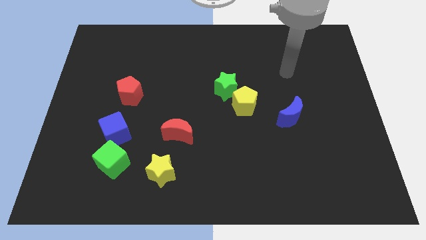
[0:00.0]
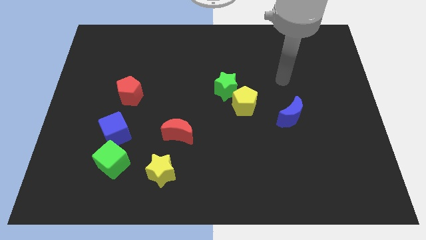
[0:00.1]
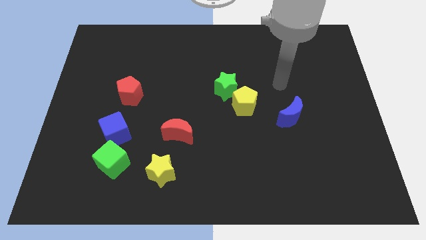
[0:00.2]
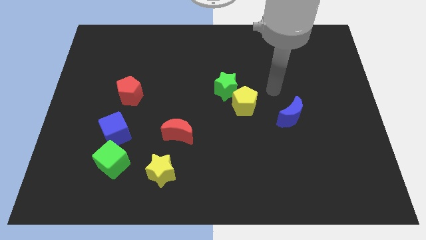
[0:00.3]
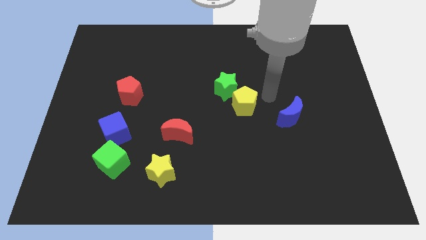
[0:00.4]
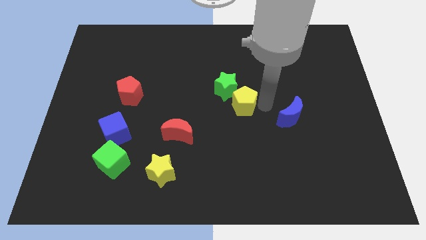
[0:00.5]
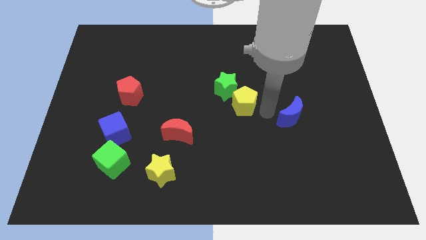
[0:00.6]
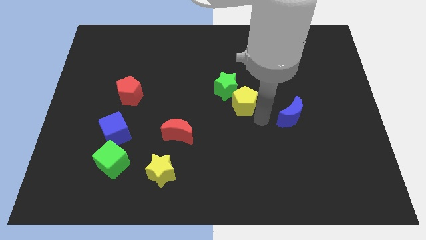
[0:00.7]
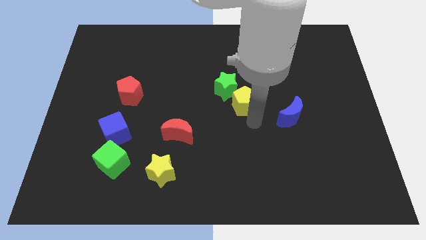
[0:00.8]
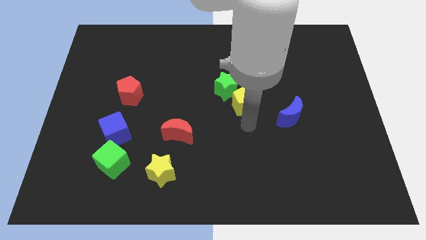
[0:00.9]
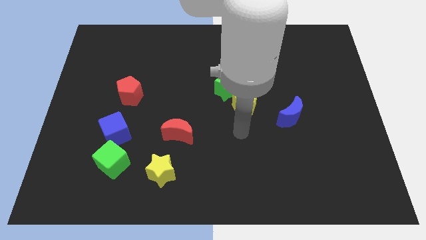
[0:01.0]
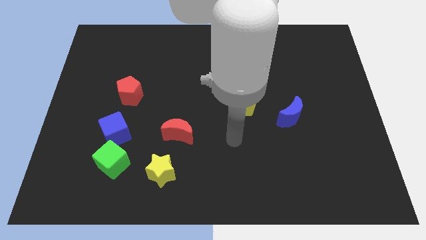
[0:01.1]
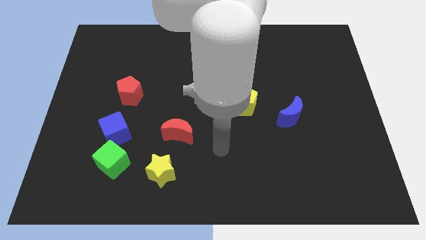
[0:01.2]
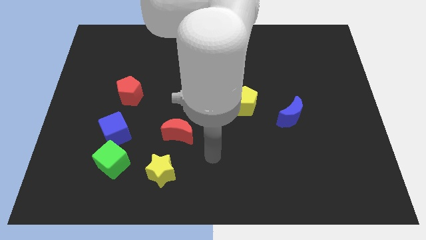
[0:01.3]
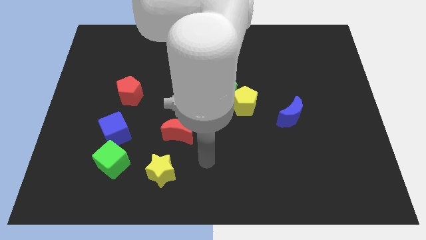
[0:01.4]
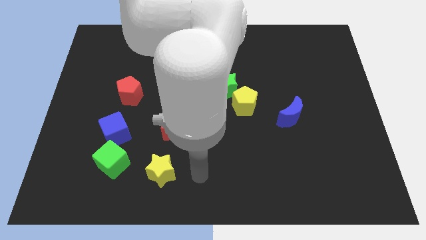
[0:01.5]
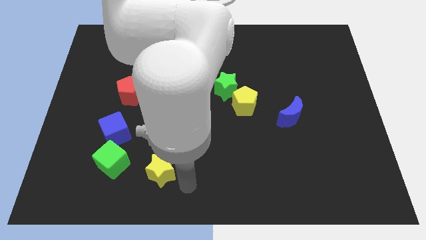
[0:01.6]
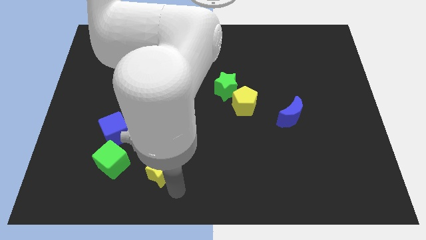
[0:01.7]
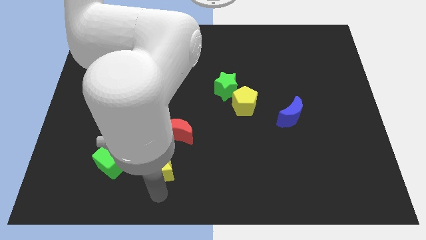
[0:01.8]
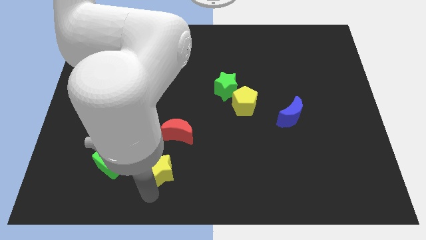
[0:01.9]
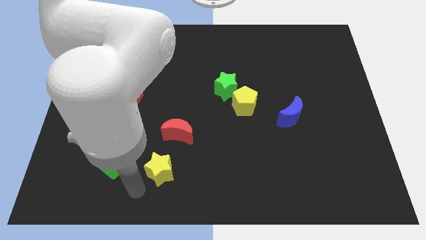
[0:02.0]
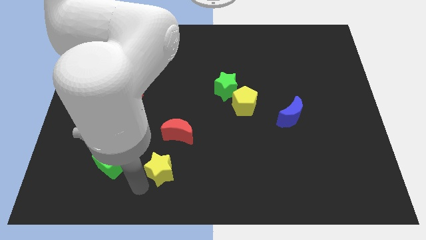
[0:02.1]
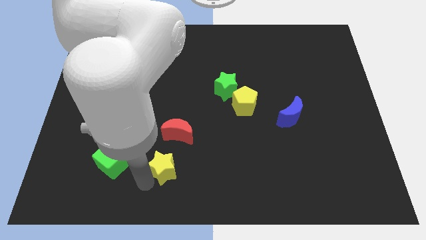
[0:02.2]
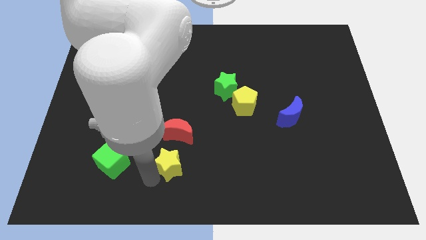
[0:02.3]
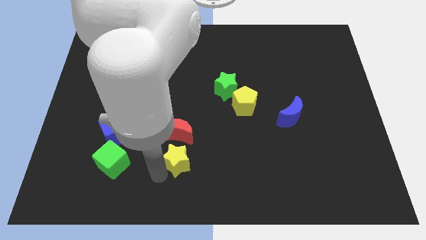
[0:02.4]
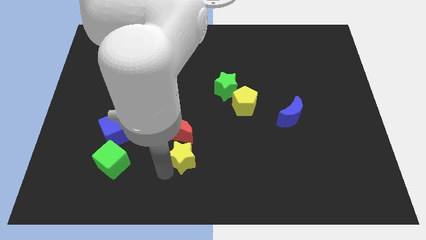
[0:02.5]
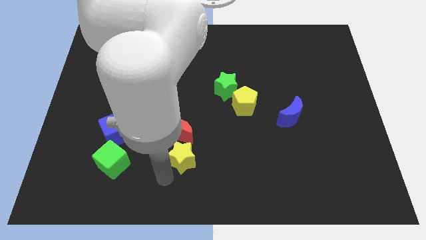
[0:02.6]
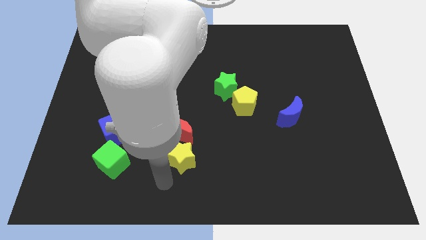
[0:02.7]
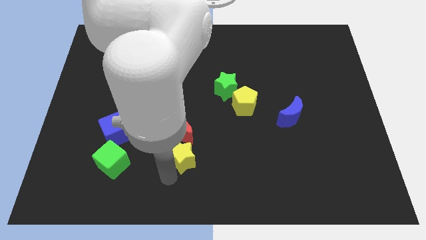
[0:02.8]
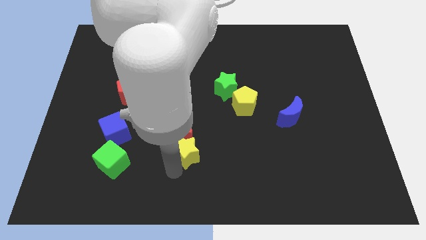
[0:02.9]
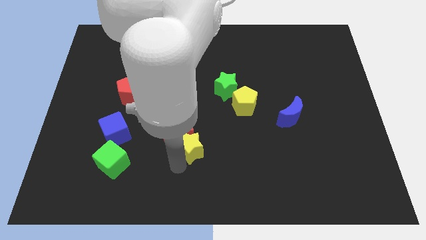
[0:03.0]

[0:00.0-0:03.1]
slightly push the yellow star up and right

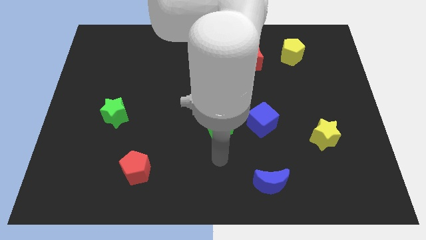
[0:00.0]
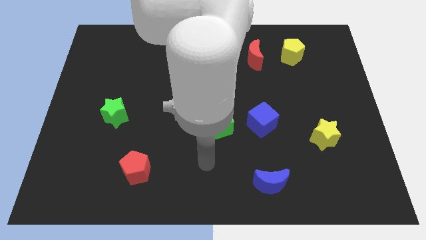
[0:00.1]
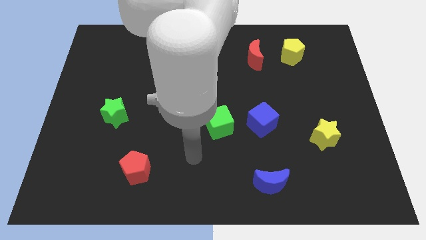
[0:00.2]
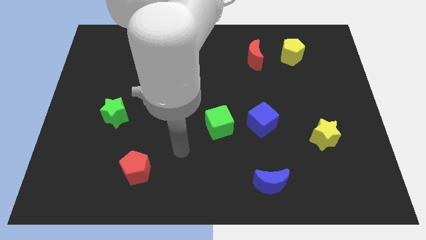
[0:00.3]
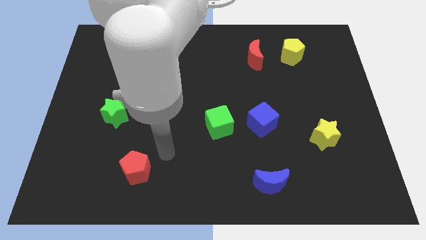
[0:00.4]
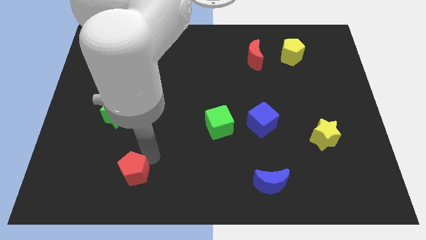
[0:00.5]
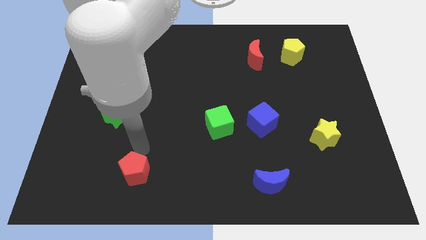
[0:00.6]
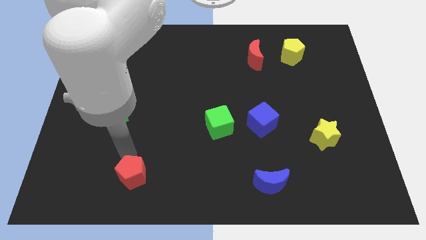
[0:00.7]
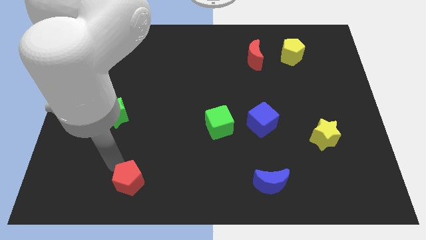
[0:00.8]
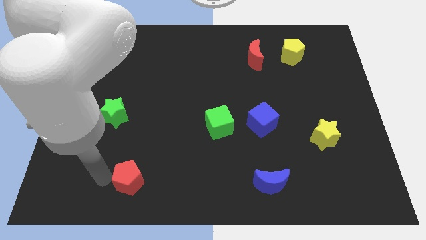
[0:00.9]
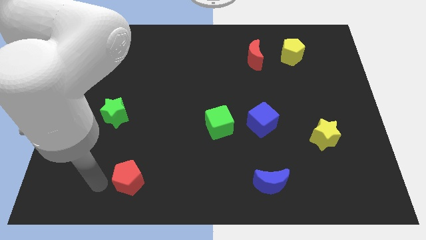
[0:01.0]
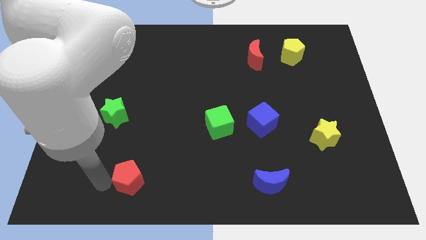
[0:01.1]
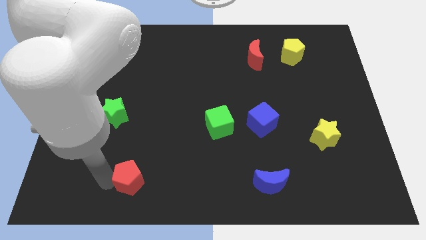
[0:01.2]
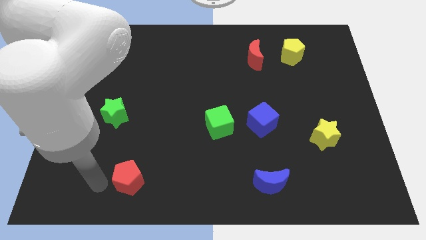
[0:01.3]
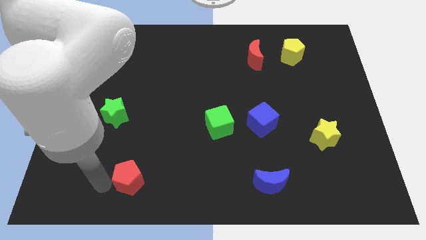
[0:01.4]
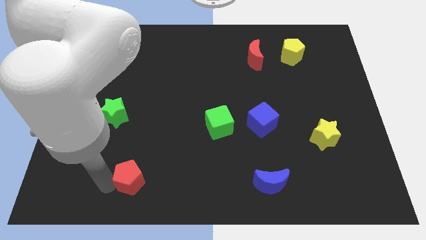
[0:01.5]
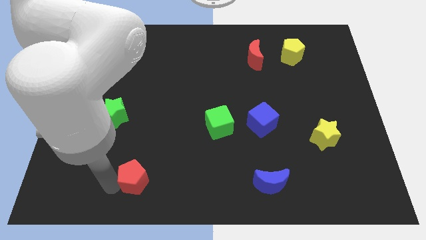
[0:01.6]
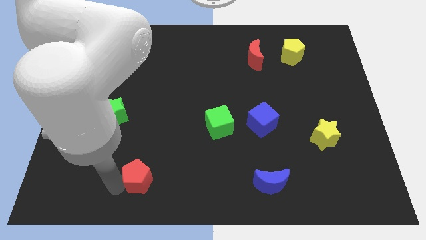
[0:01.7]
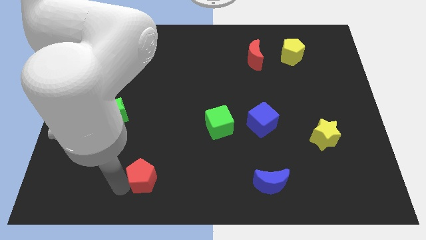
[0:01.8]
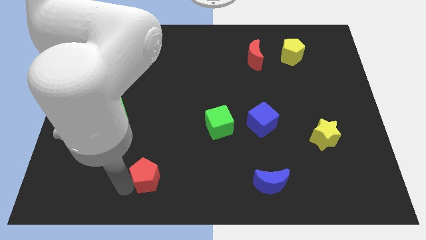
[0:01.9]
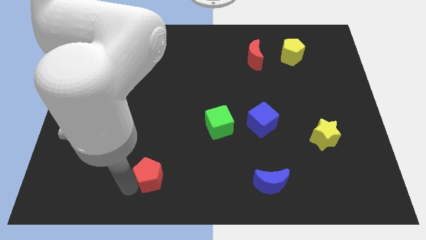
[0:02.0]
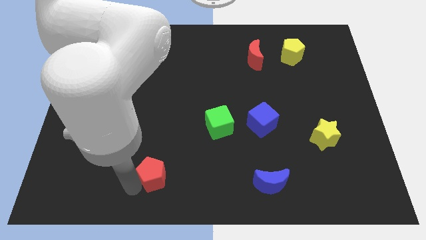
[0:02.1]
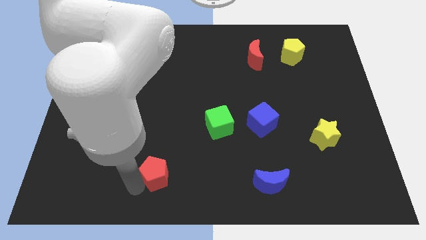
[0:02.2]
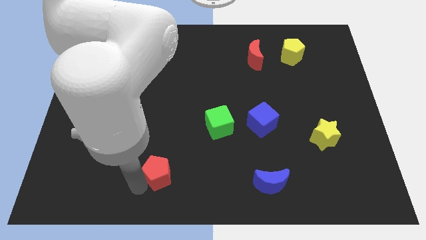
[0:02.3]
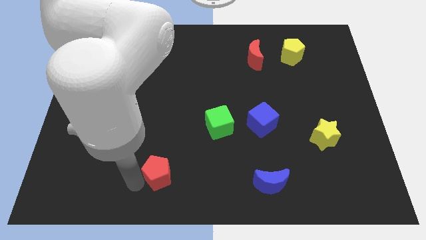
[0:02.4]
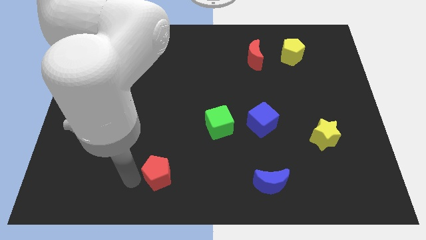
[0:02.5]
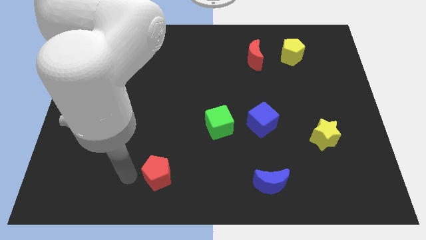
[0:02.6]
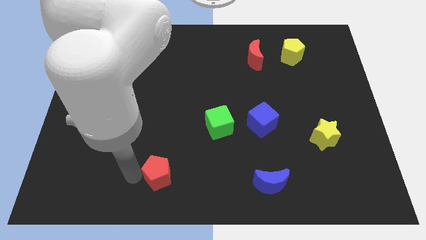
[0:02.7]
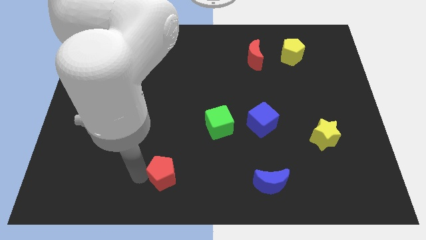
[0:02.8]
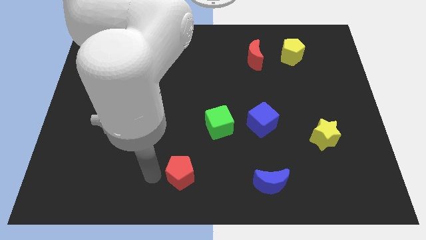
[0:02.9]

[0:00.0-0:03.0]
slightly slide the red pentagon right

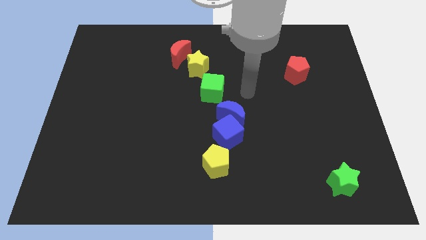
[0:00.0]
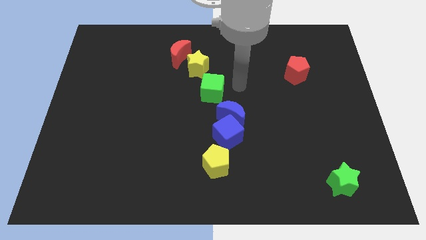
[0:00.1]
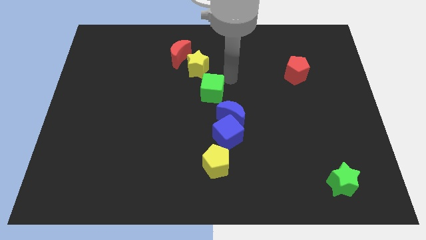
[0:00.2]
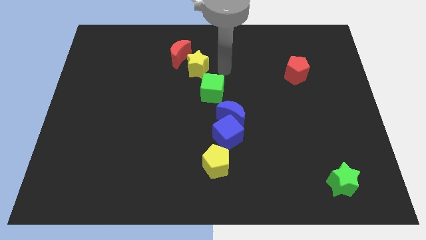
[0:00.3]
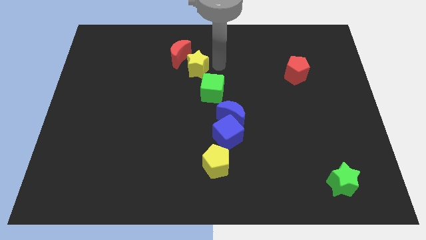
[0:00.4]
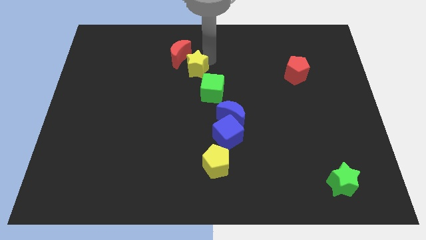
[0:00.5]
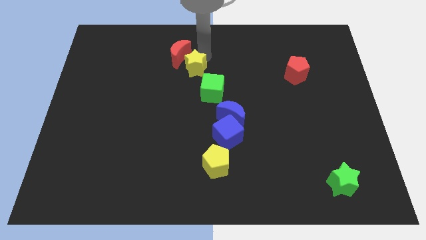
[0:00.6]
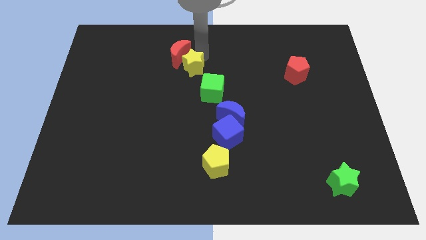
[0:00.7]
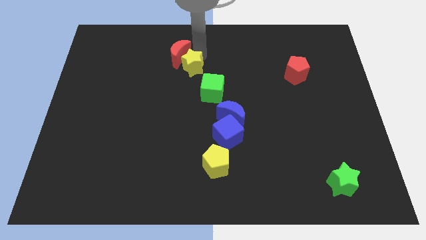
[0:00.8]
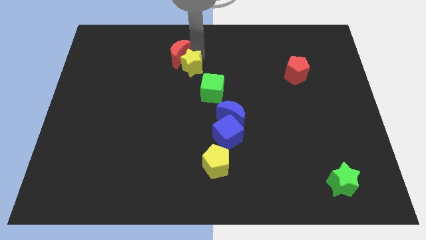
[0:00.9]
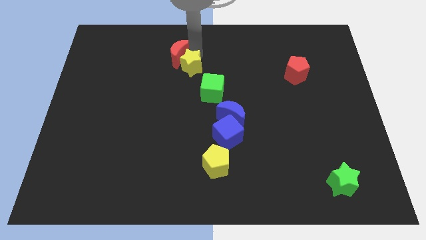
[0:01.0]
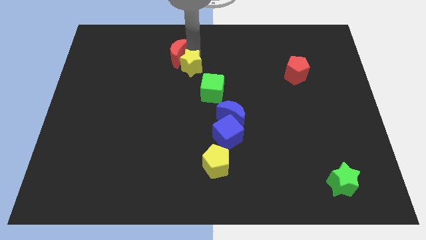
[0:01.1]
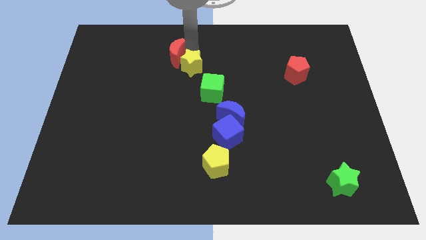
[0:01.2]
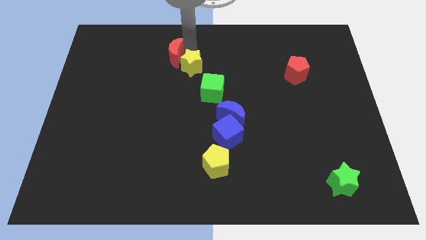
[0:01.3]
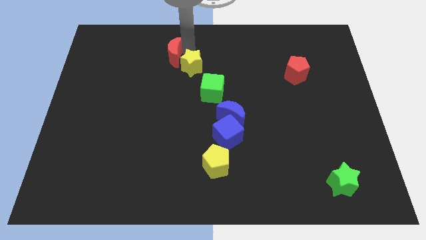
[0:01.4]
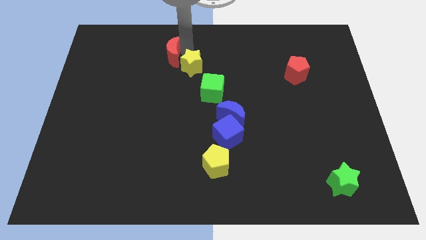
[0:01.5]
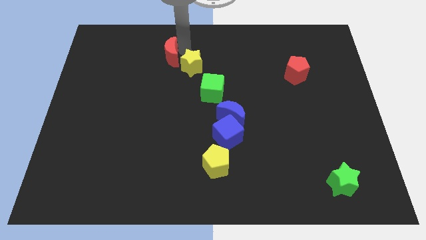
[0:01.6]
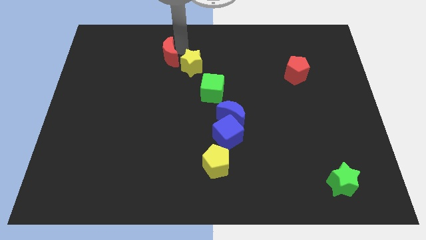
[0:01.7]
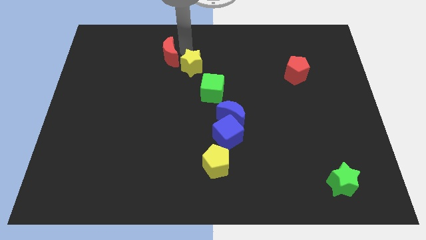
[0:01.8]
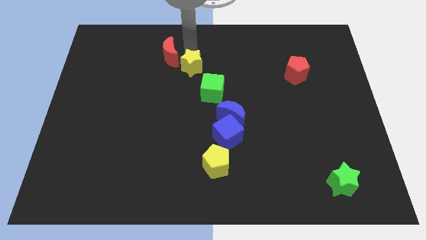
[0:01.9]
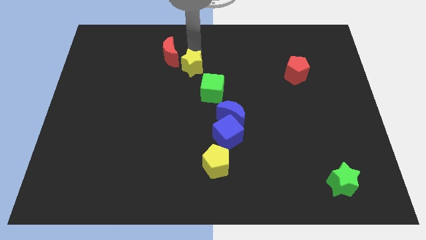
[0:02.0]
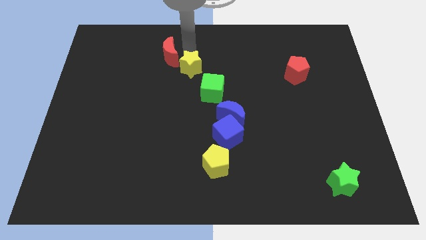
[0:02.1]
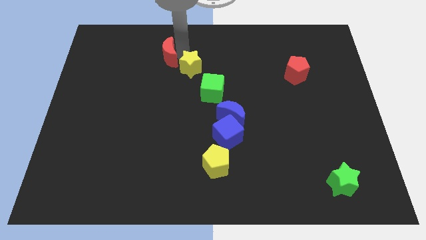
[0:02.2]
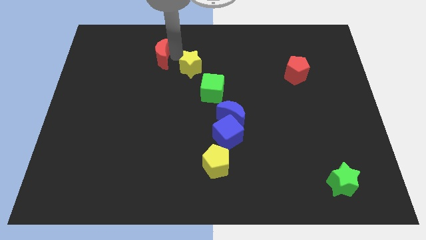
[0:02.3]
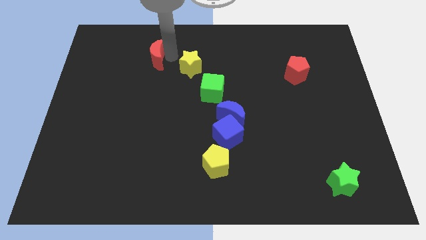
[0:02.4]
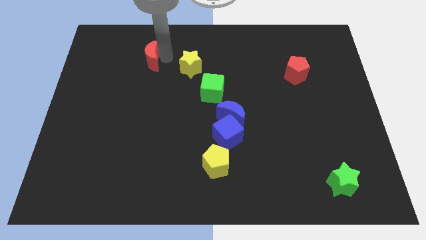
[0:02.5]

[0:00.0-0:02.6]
slightly push the red moon to the left
